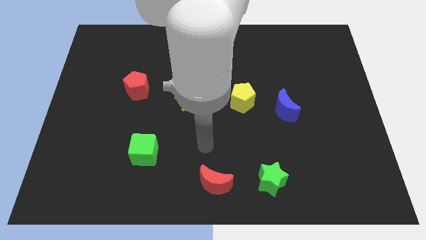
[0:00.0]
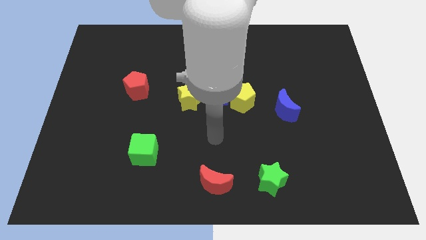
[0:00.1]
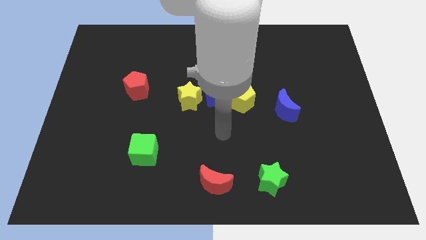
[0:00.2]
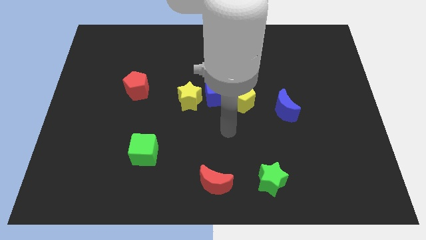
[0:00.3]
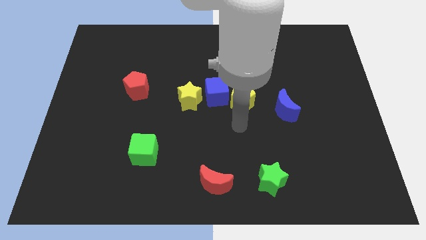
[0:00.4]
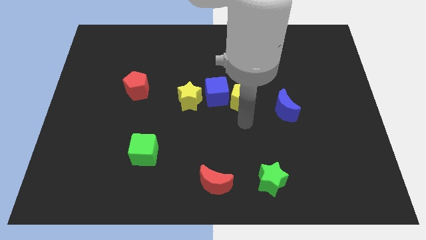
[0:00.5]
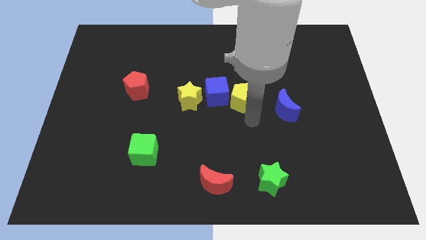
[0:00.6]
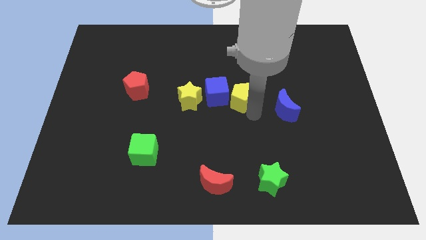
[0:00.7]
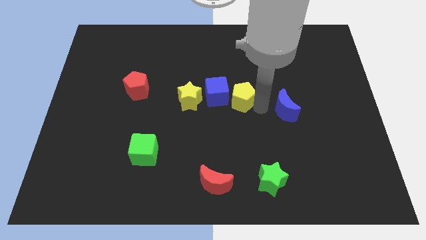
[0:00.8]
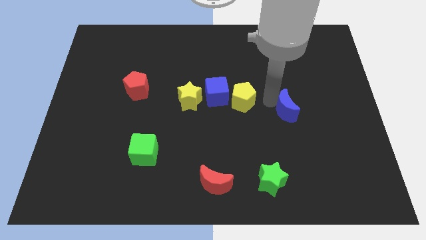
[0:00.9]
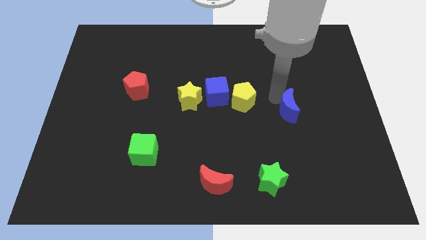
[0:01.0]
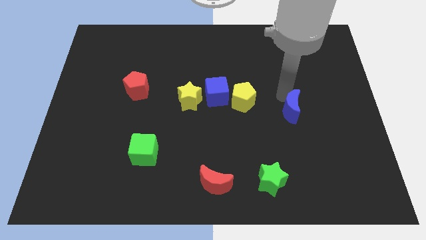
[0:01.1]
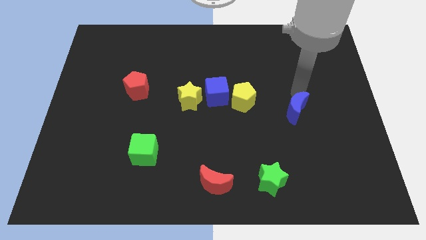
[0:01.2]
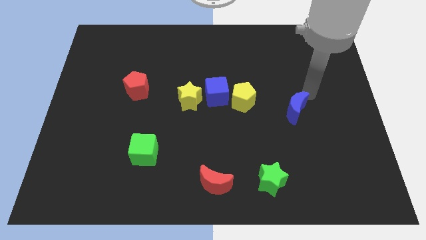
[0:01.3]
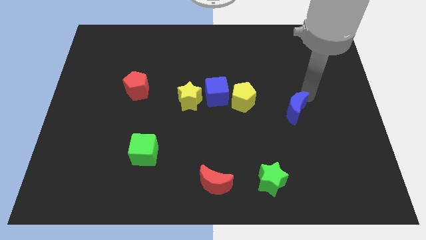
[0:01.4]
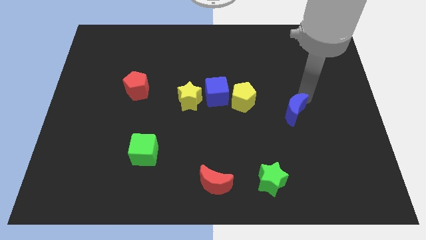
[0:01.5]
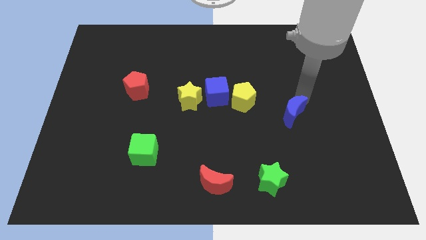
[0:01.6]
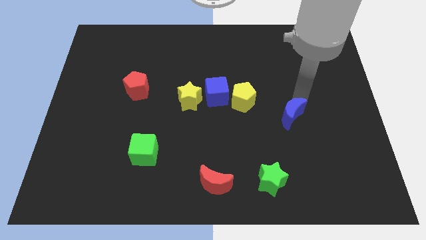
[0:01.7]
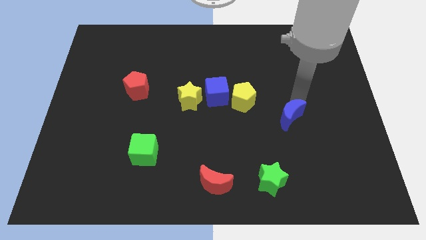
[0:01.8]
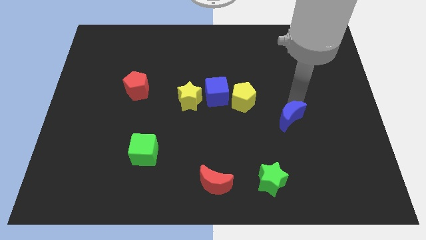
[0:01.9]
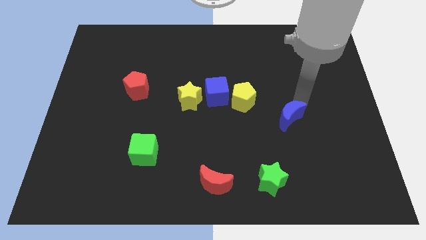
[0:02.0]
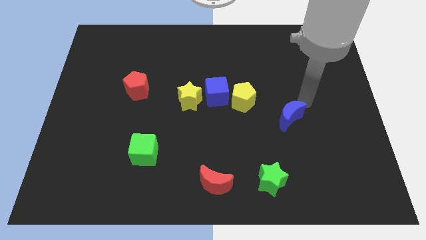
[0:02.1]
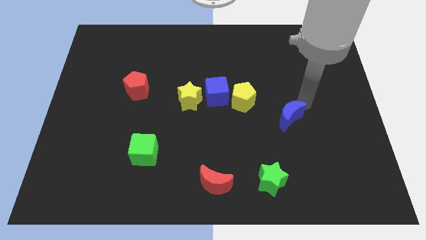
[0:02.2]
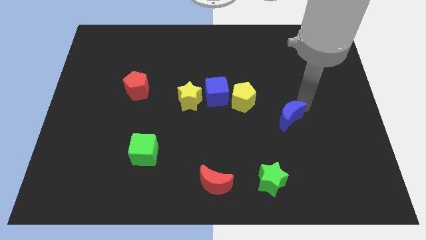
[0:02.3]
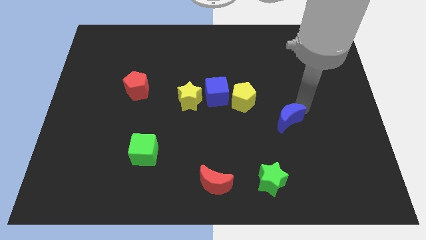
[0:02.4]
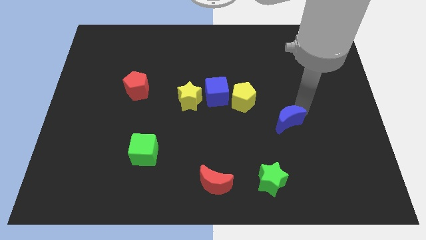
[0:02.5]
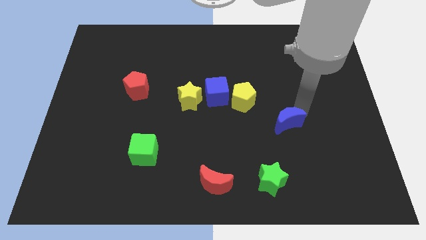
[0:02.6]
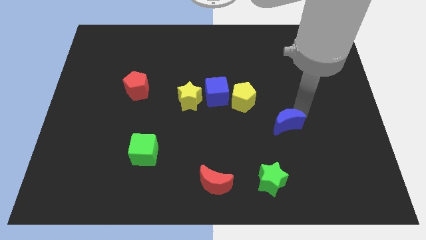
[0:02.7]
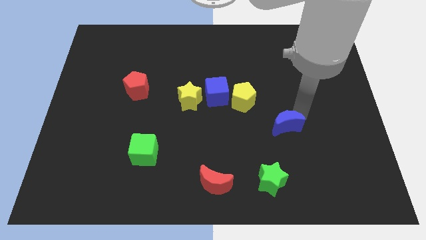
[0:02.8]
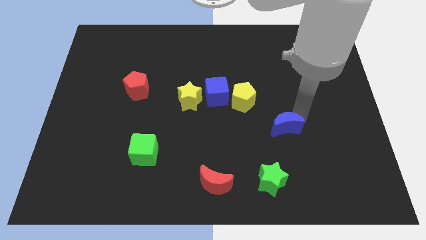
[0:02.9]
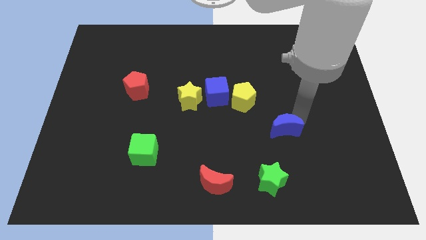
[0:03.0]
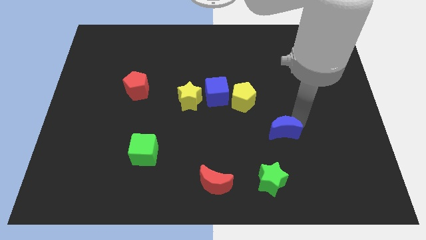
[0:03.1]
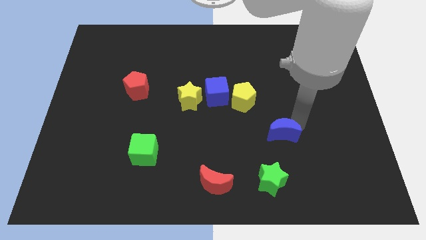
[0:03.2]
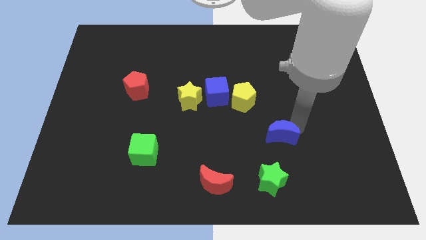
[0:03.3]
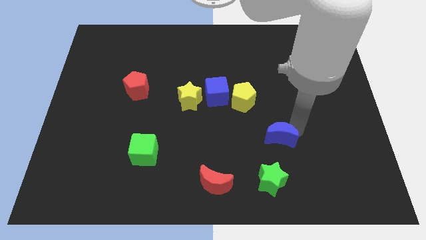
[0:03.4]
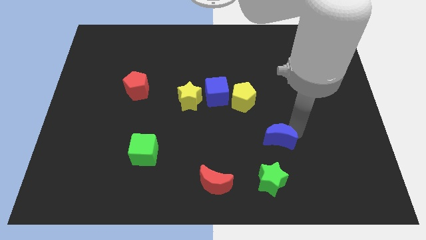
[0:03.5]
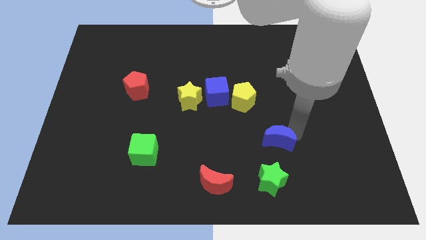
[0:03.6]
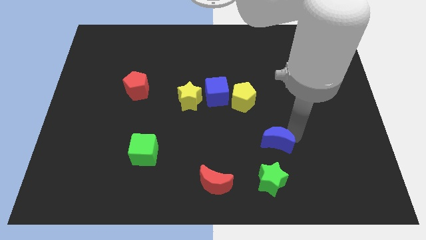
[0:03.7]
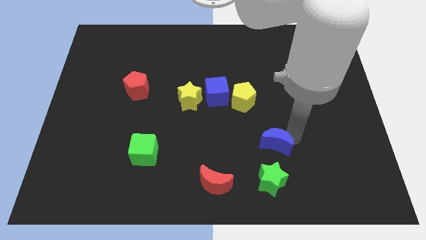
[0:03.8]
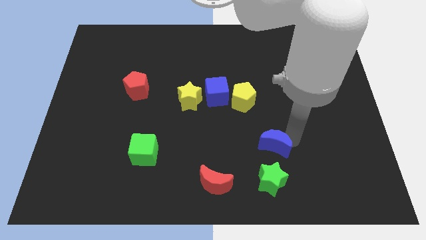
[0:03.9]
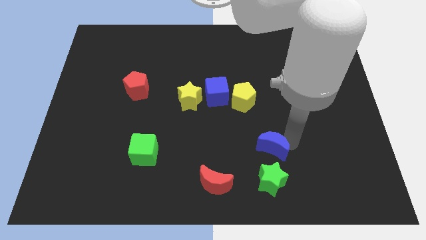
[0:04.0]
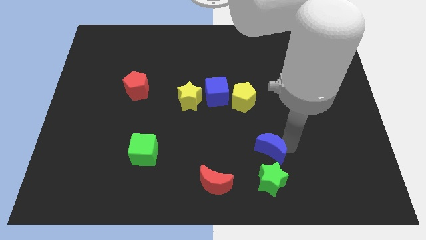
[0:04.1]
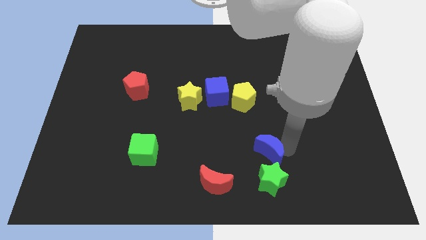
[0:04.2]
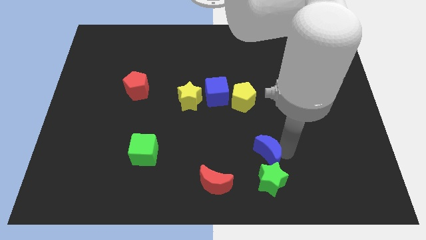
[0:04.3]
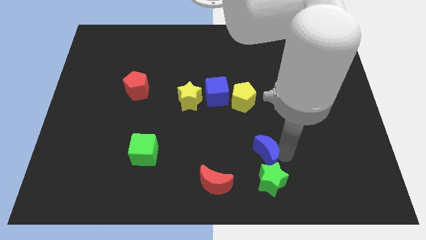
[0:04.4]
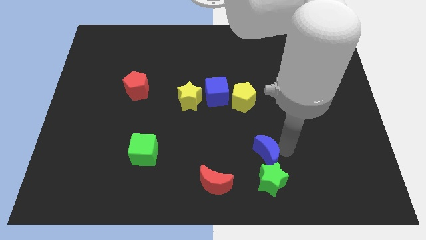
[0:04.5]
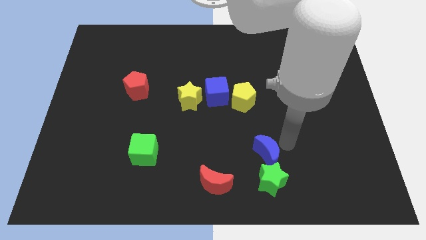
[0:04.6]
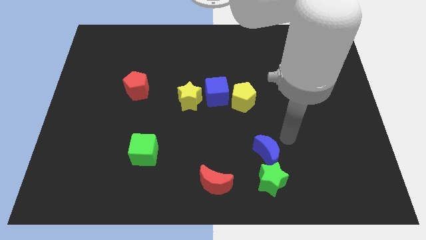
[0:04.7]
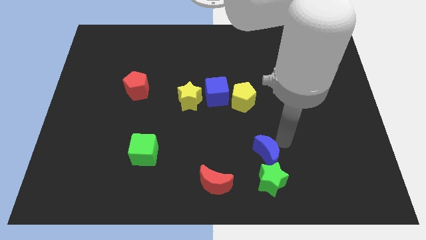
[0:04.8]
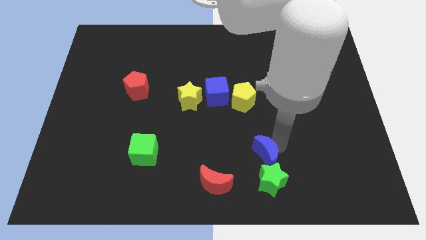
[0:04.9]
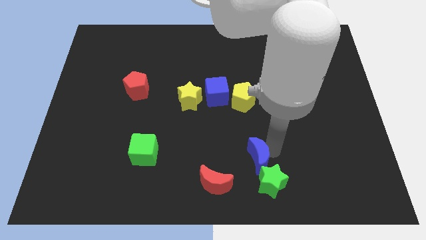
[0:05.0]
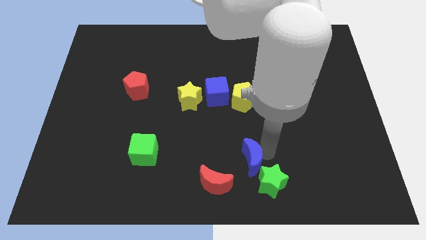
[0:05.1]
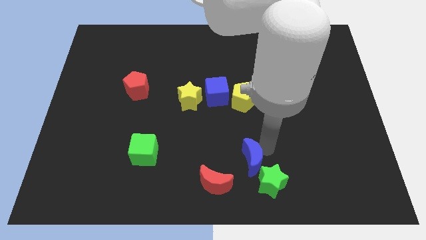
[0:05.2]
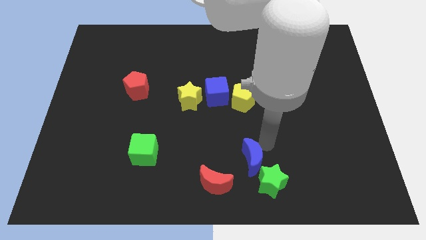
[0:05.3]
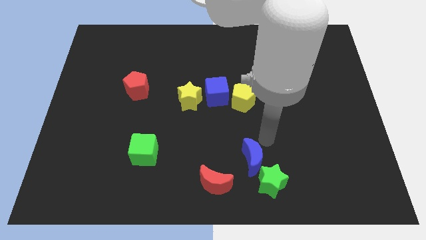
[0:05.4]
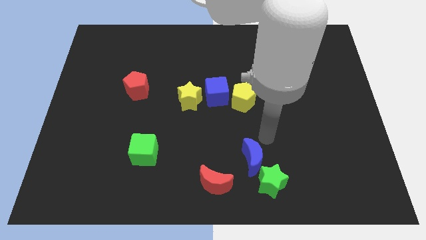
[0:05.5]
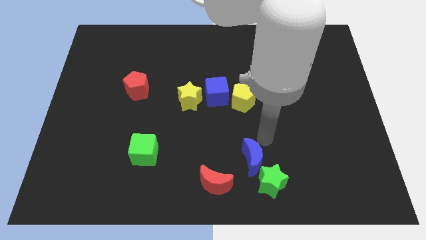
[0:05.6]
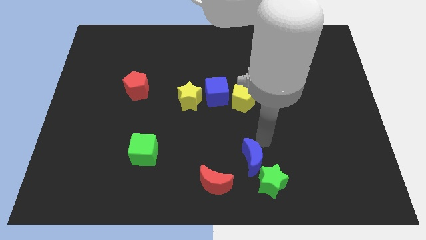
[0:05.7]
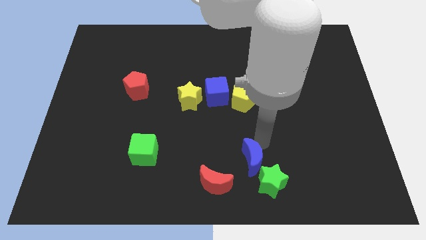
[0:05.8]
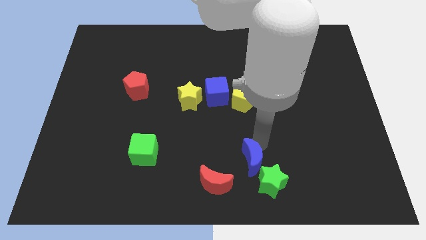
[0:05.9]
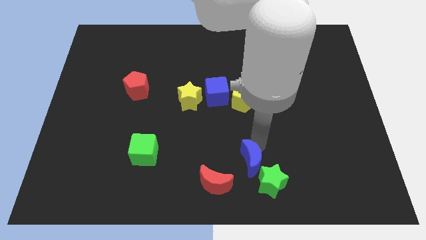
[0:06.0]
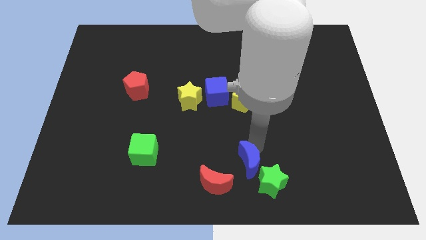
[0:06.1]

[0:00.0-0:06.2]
move the blue moon to the bottom side

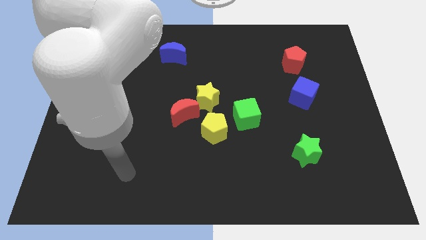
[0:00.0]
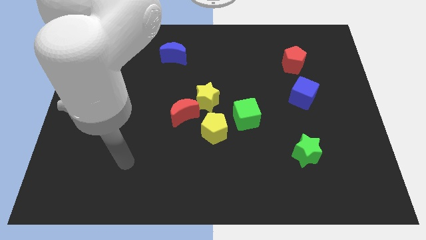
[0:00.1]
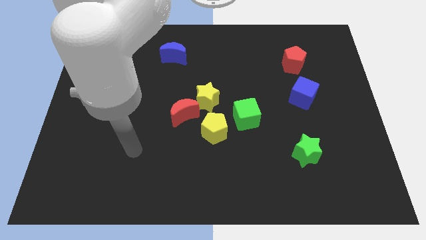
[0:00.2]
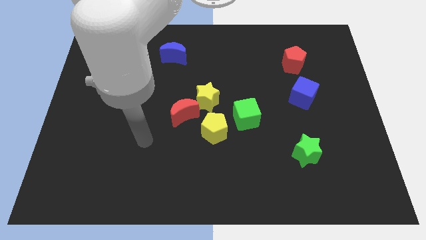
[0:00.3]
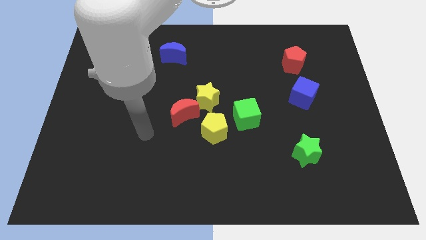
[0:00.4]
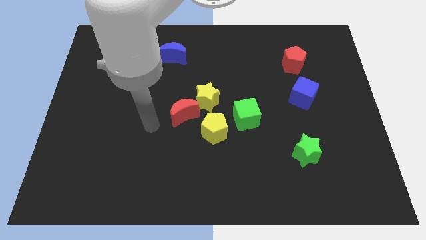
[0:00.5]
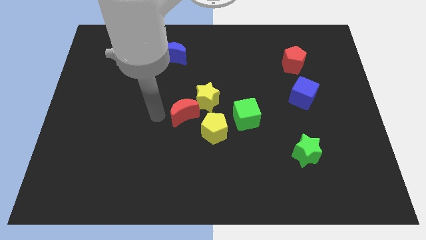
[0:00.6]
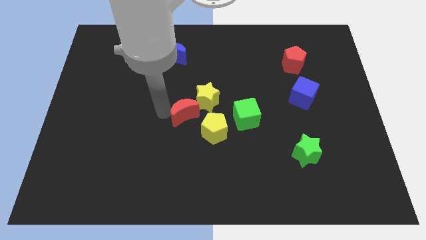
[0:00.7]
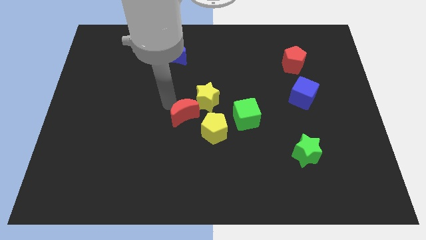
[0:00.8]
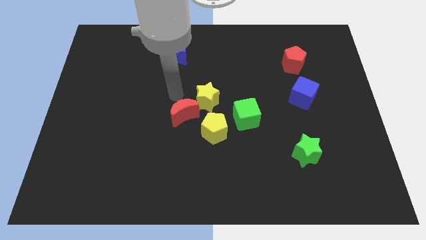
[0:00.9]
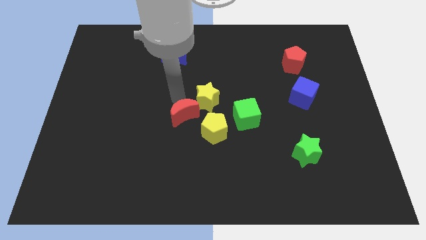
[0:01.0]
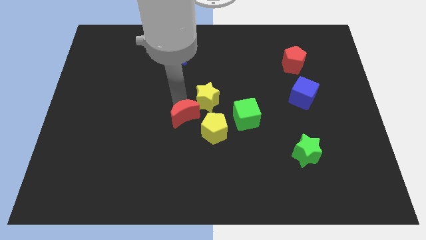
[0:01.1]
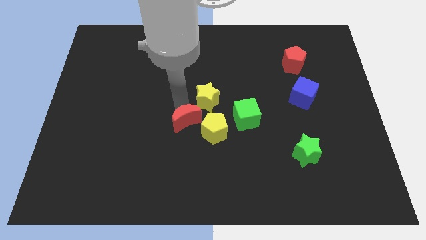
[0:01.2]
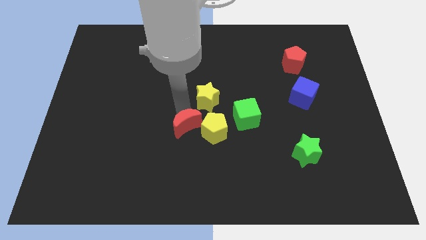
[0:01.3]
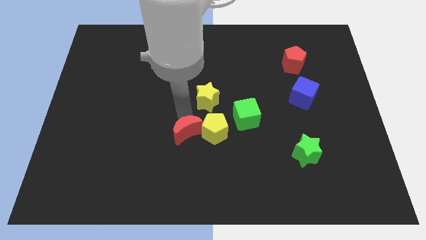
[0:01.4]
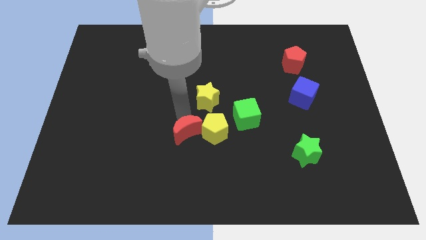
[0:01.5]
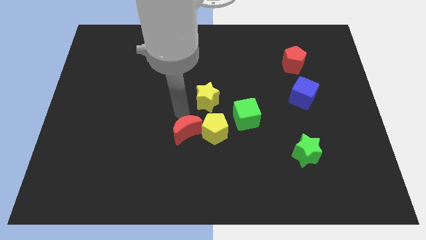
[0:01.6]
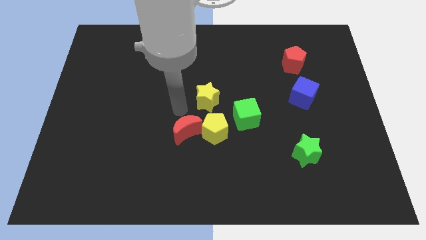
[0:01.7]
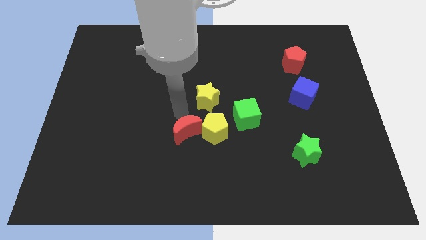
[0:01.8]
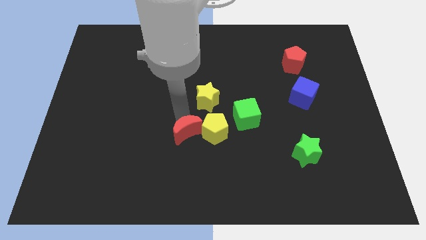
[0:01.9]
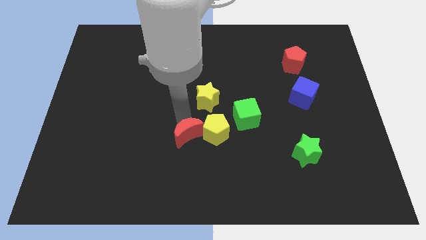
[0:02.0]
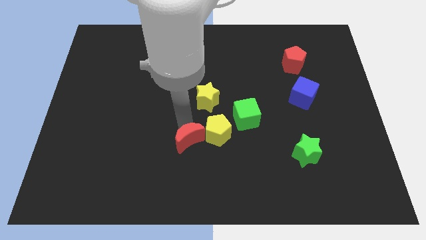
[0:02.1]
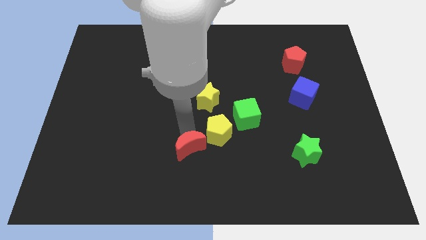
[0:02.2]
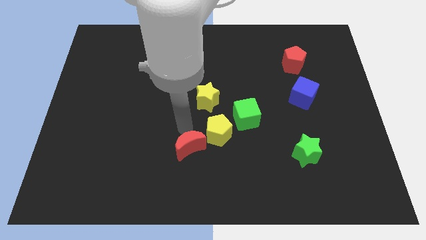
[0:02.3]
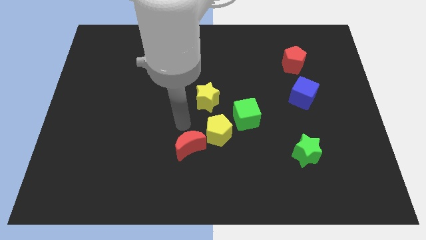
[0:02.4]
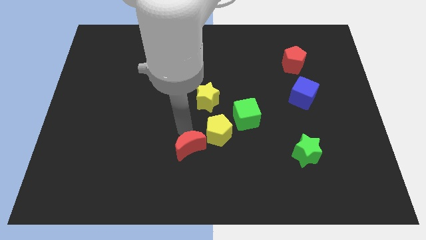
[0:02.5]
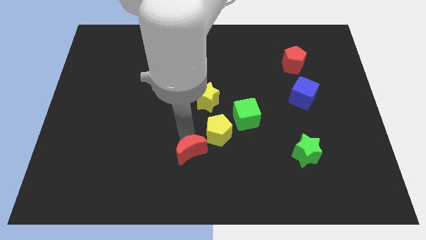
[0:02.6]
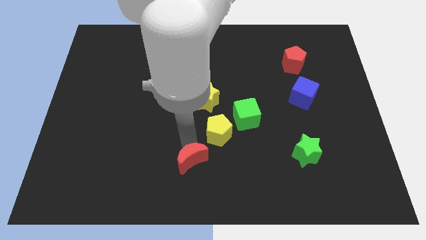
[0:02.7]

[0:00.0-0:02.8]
slide the red moon to the bottom side
